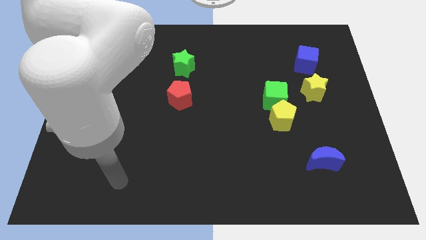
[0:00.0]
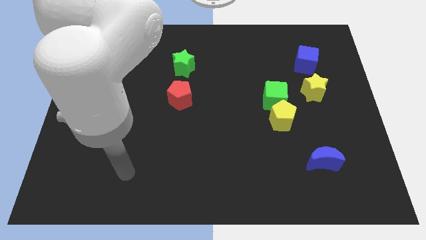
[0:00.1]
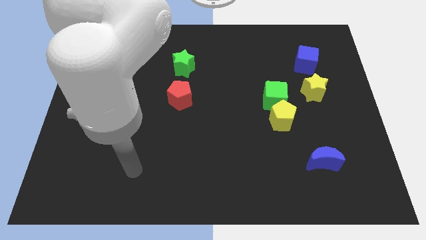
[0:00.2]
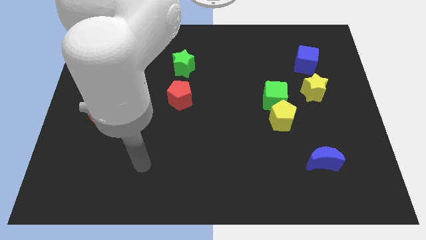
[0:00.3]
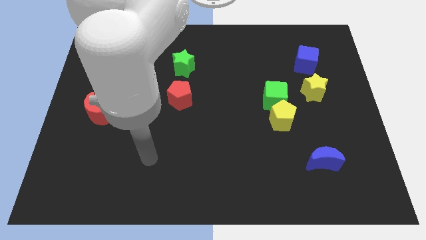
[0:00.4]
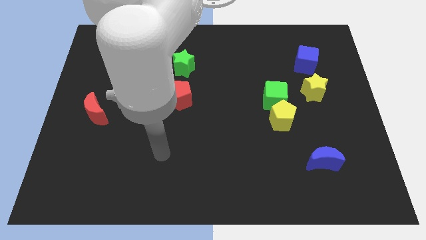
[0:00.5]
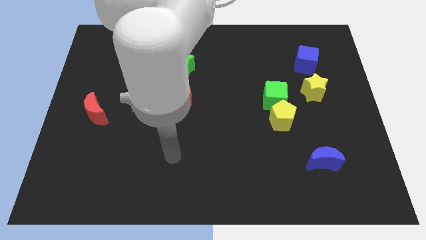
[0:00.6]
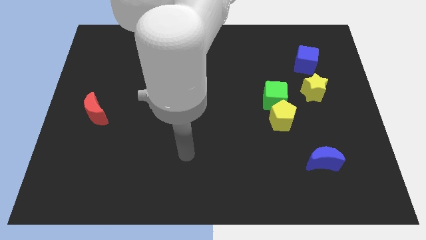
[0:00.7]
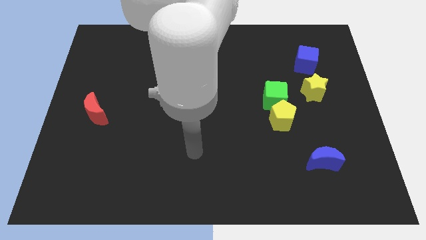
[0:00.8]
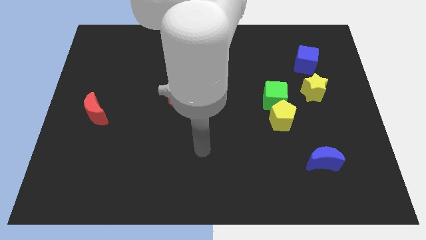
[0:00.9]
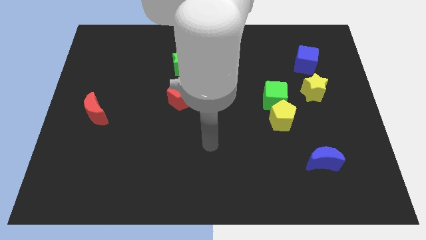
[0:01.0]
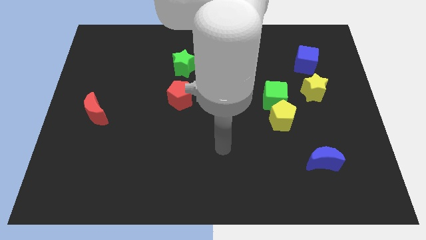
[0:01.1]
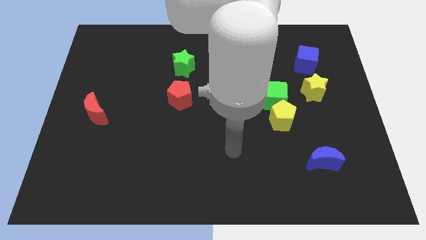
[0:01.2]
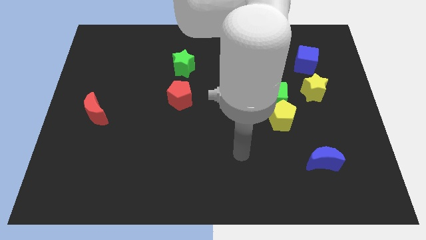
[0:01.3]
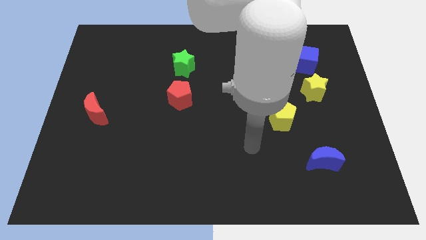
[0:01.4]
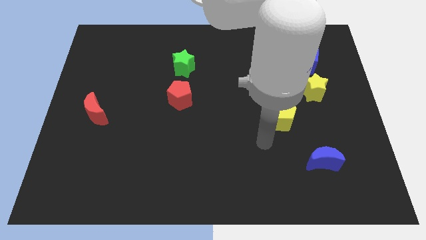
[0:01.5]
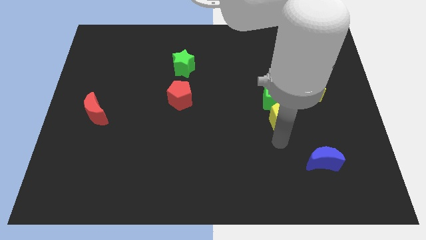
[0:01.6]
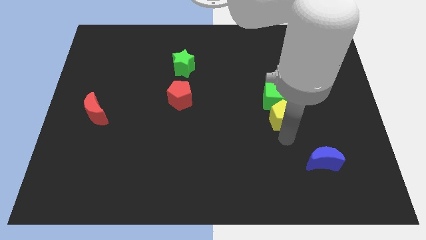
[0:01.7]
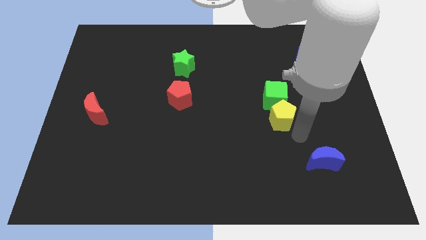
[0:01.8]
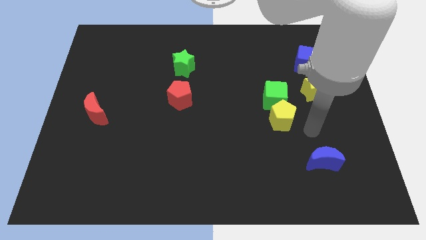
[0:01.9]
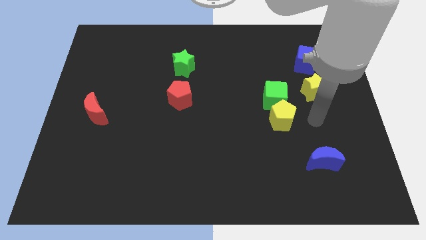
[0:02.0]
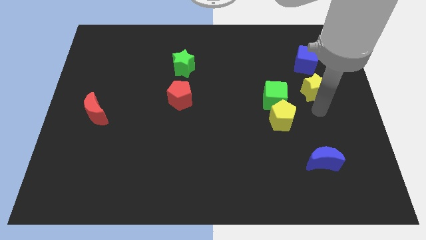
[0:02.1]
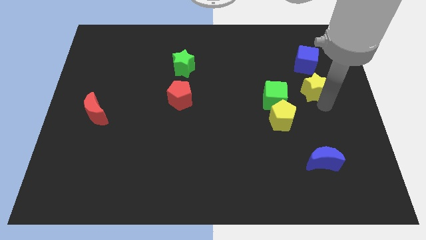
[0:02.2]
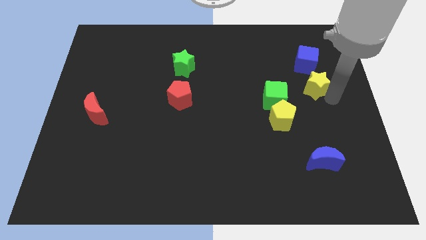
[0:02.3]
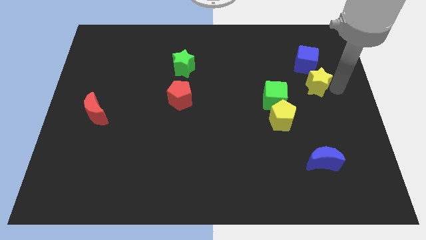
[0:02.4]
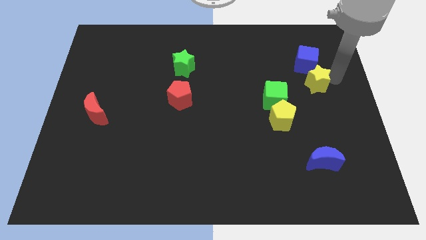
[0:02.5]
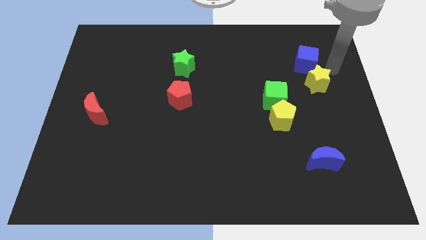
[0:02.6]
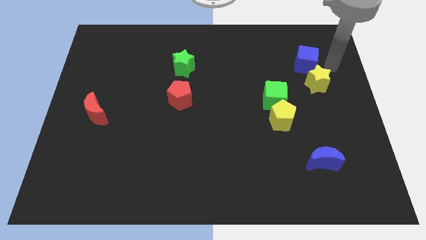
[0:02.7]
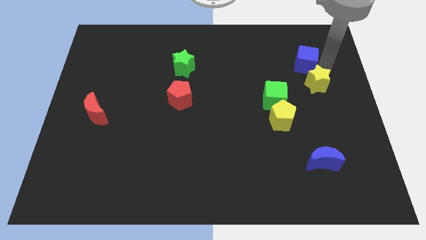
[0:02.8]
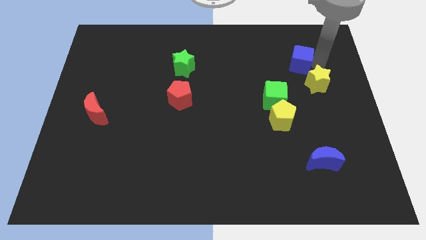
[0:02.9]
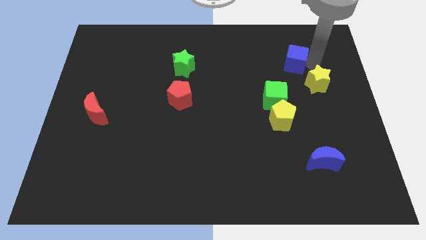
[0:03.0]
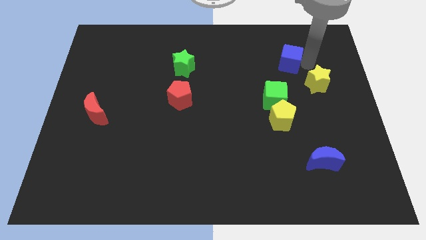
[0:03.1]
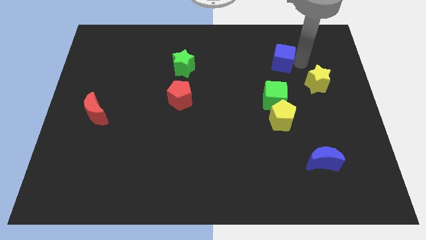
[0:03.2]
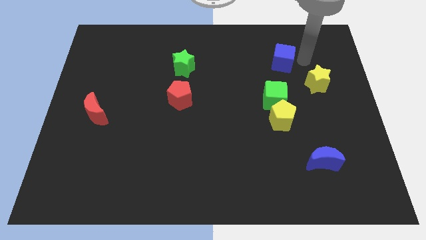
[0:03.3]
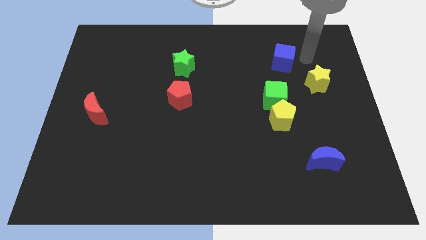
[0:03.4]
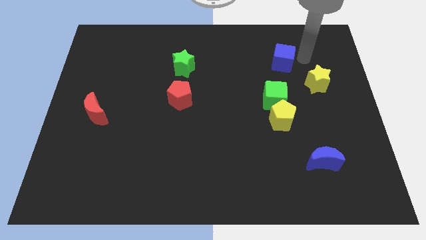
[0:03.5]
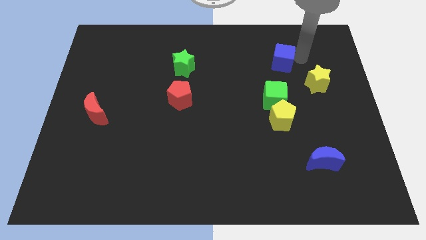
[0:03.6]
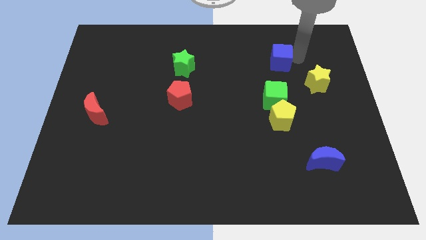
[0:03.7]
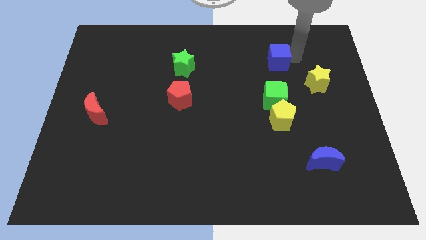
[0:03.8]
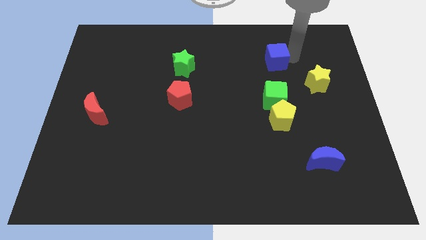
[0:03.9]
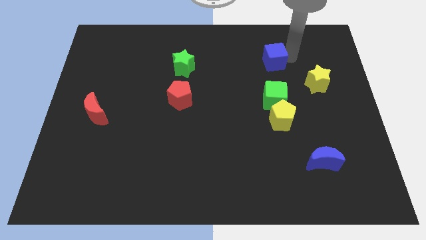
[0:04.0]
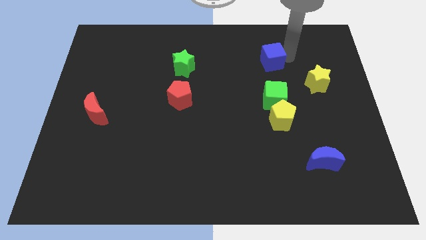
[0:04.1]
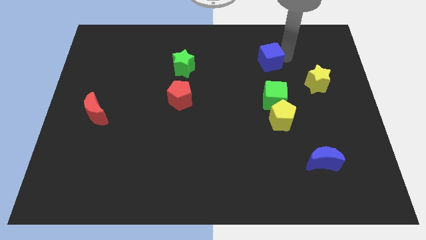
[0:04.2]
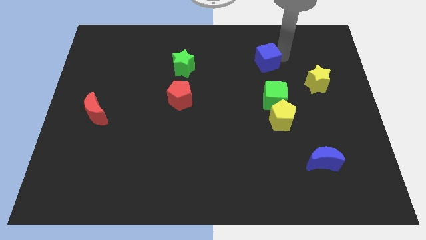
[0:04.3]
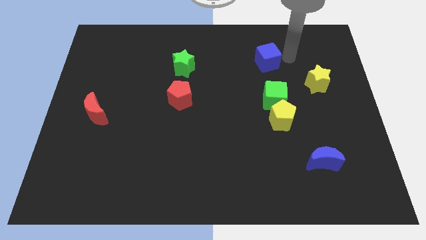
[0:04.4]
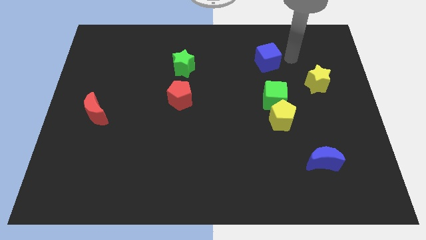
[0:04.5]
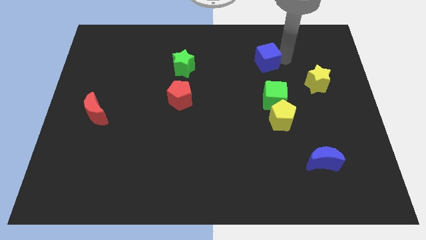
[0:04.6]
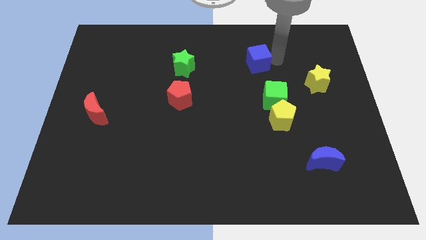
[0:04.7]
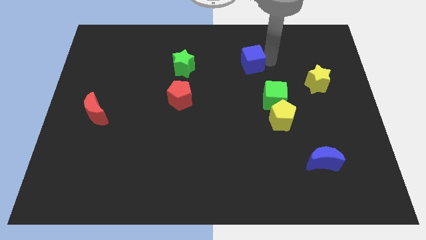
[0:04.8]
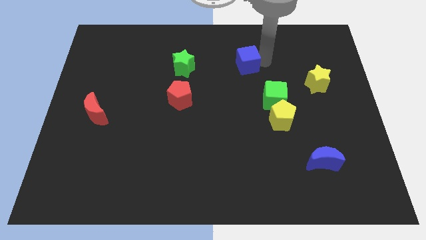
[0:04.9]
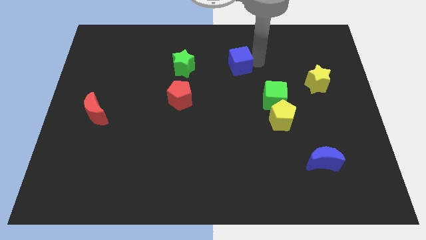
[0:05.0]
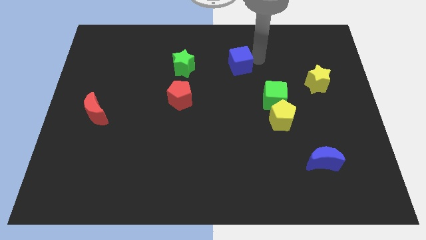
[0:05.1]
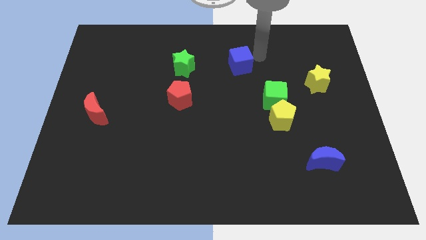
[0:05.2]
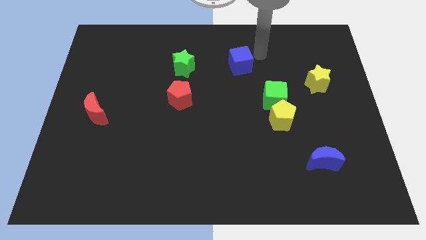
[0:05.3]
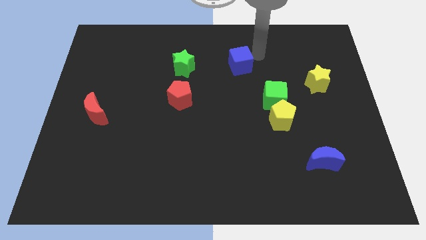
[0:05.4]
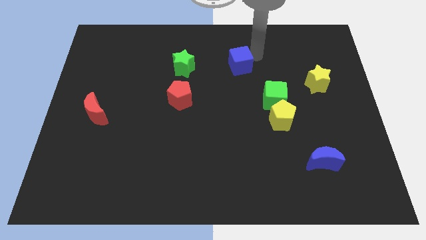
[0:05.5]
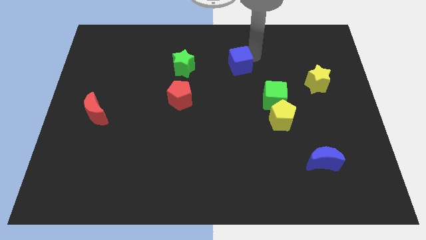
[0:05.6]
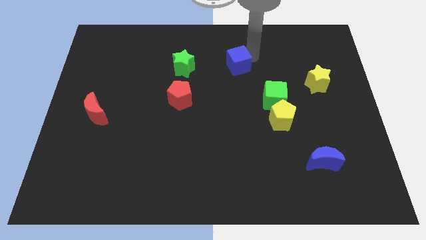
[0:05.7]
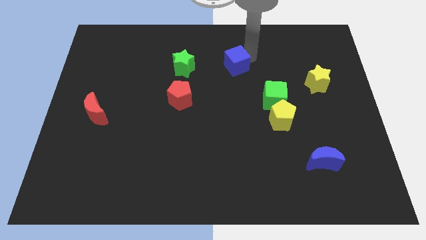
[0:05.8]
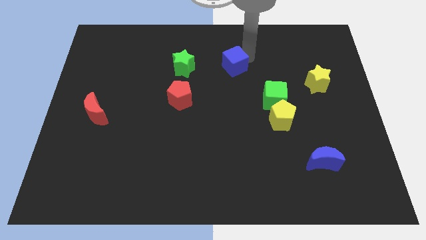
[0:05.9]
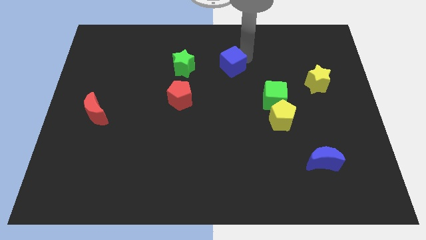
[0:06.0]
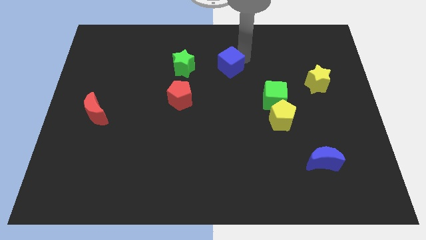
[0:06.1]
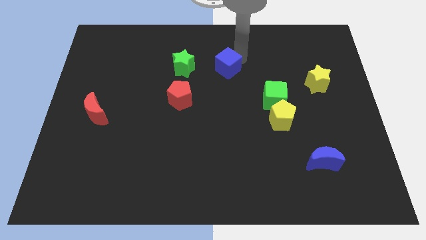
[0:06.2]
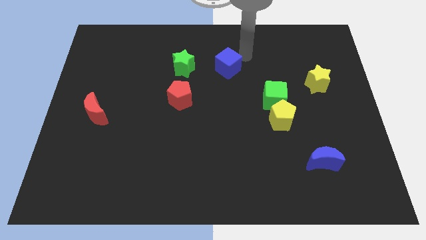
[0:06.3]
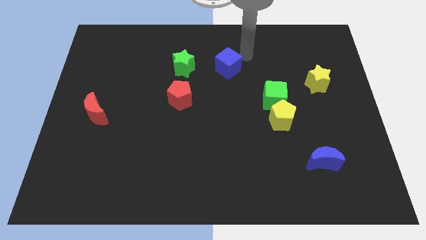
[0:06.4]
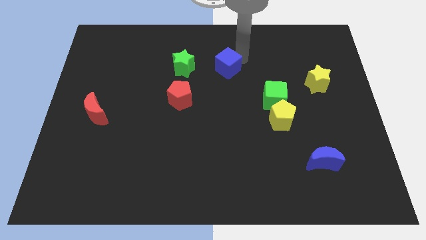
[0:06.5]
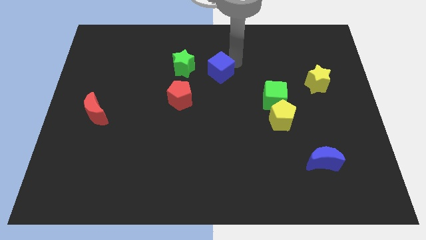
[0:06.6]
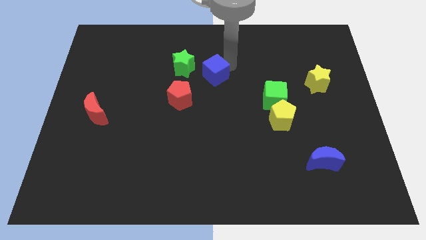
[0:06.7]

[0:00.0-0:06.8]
push the blue cube diagonally down and to the right of the green star
